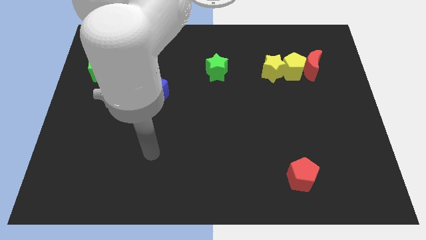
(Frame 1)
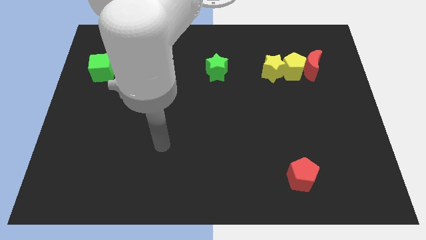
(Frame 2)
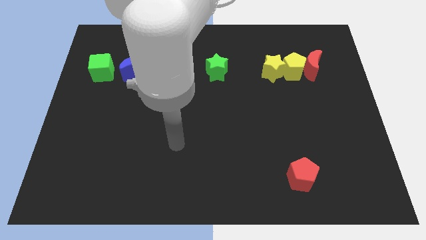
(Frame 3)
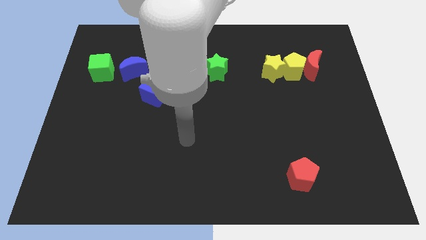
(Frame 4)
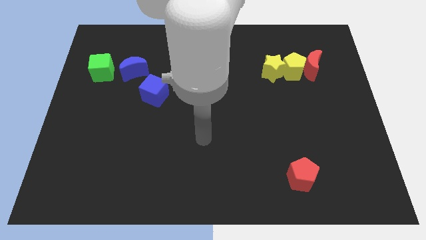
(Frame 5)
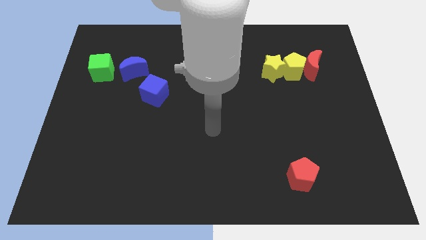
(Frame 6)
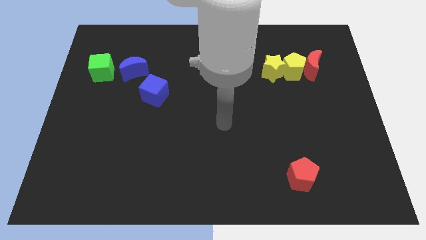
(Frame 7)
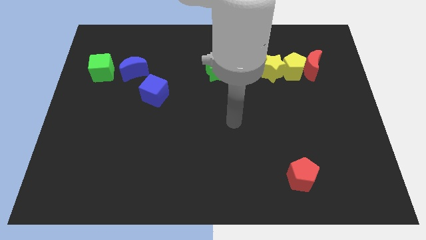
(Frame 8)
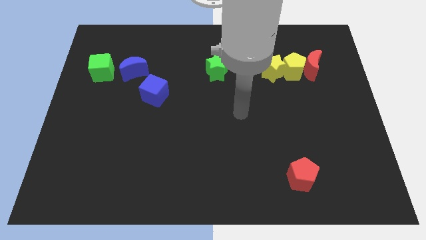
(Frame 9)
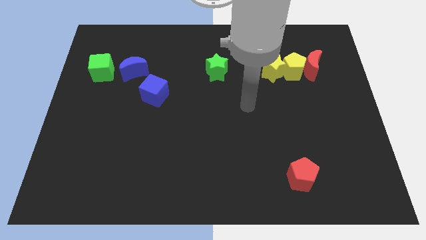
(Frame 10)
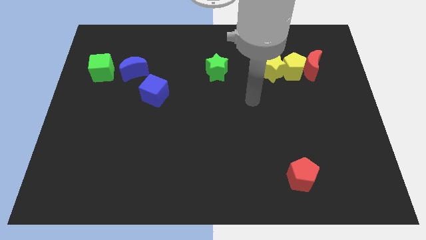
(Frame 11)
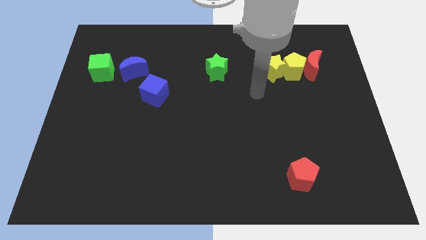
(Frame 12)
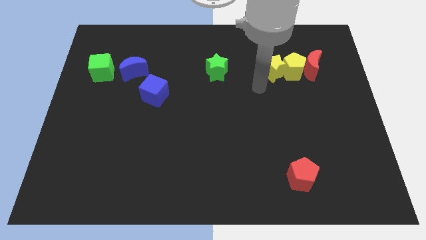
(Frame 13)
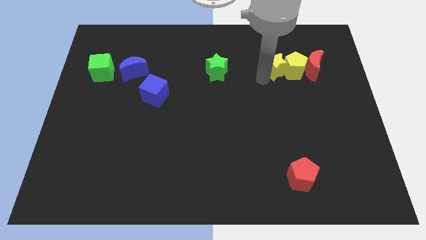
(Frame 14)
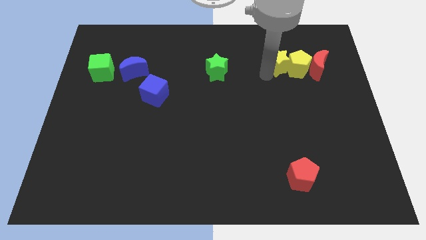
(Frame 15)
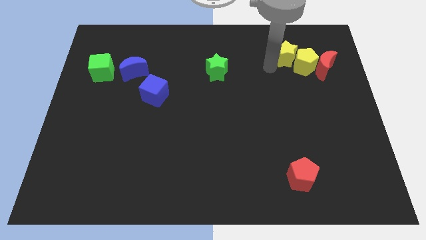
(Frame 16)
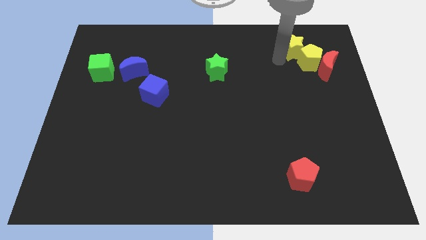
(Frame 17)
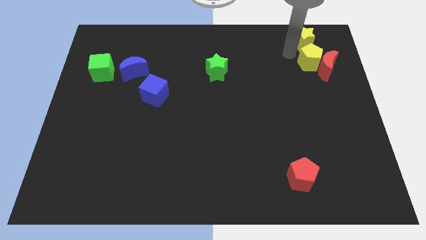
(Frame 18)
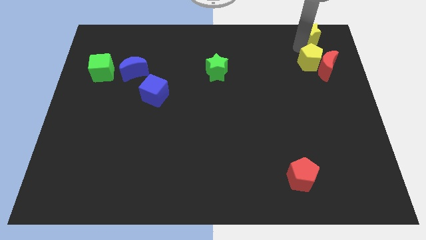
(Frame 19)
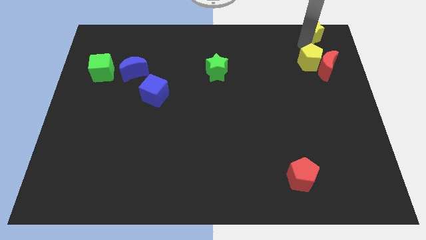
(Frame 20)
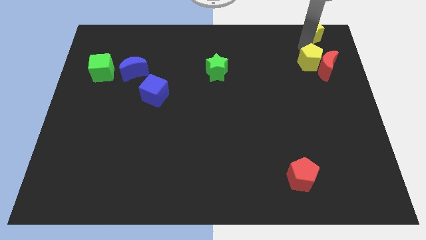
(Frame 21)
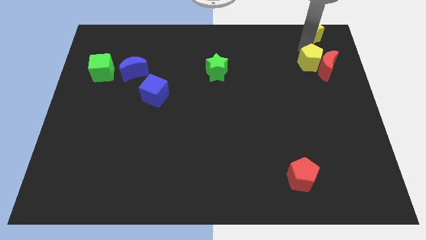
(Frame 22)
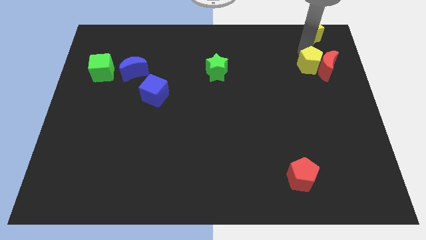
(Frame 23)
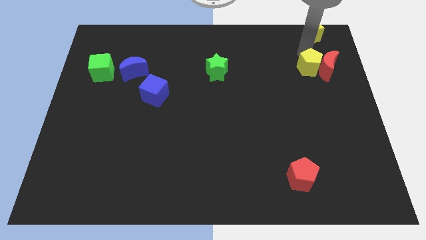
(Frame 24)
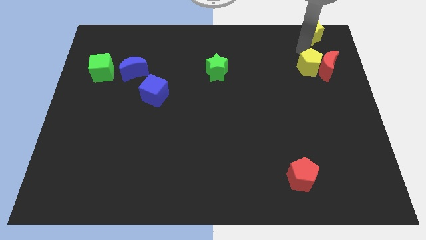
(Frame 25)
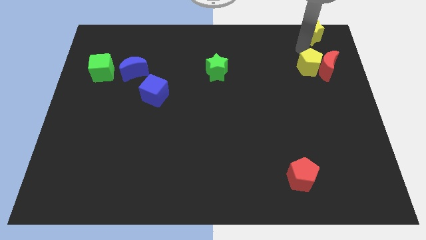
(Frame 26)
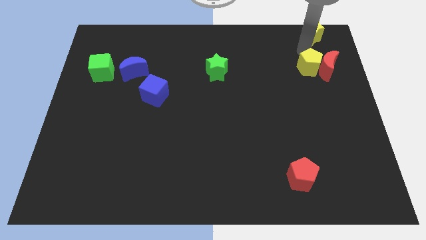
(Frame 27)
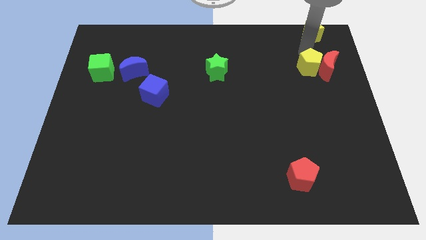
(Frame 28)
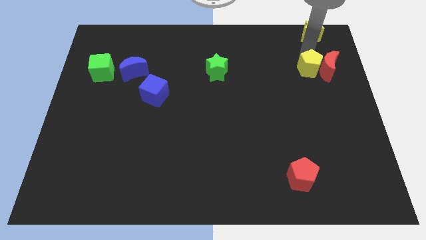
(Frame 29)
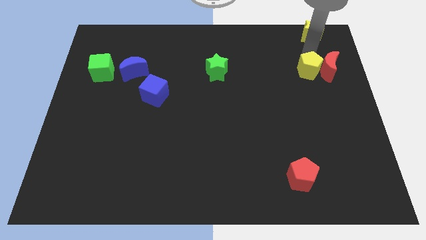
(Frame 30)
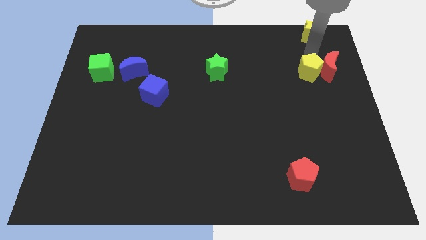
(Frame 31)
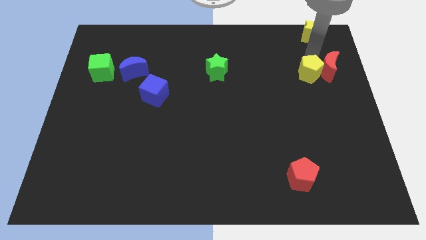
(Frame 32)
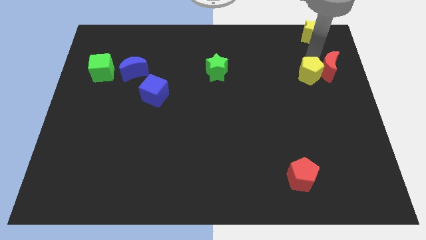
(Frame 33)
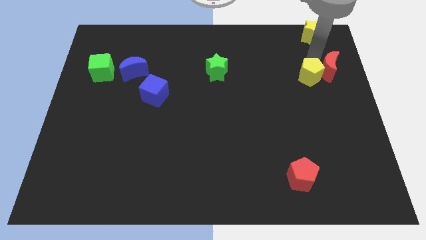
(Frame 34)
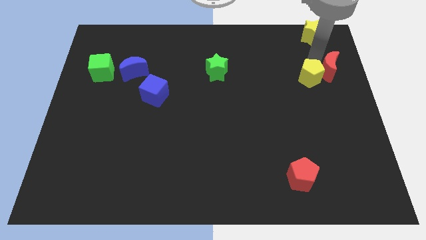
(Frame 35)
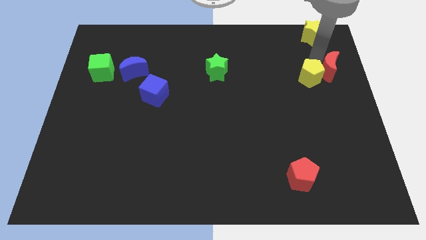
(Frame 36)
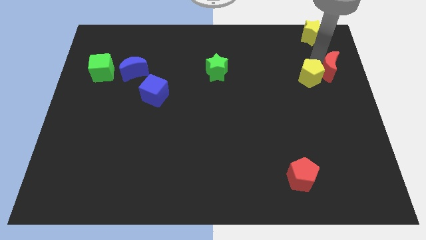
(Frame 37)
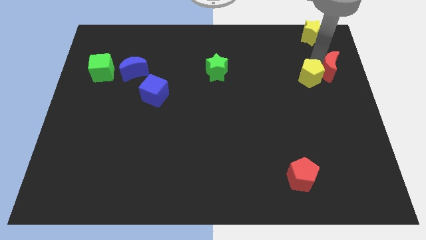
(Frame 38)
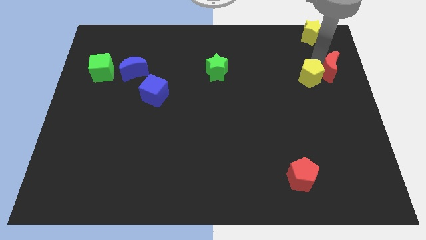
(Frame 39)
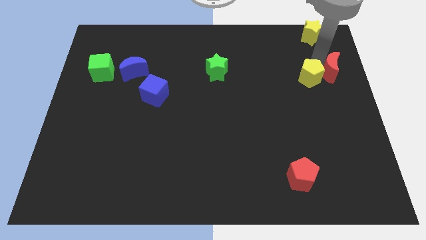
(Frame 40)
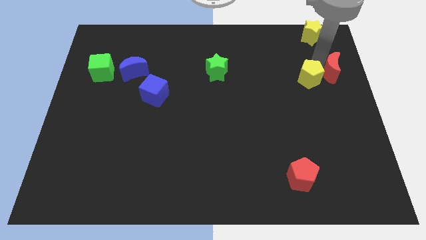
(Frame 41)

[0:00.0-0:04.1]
pull the yellow pentagon apart from the red moon and yellow star

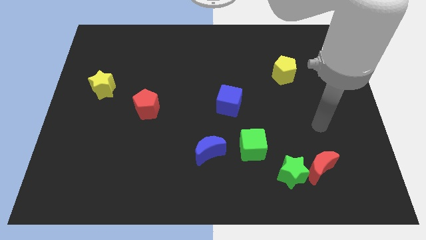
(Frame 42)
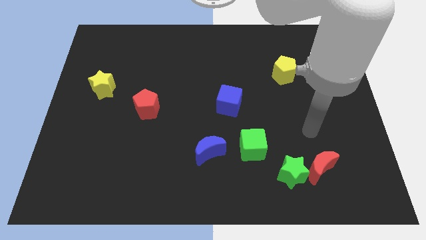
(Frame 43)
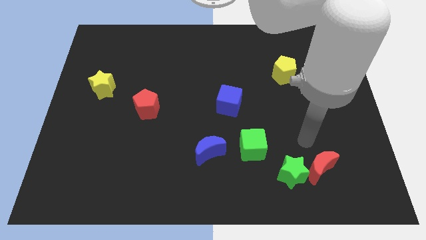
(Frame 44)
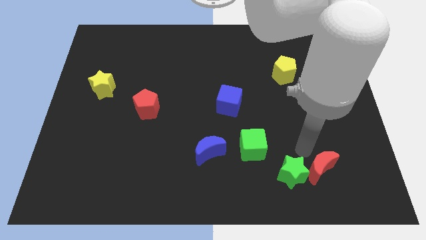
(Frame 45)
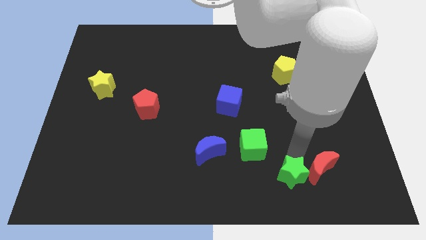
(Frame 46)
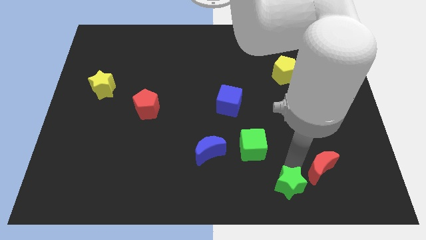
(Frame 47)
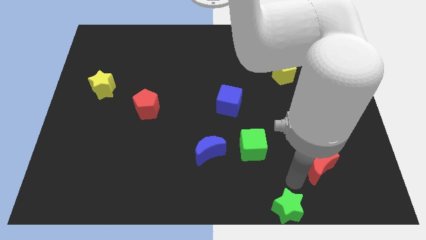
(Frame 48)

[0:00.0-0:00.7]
move the red moon away from the green star

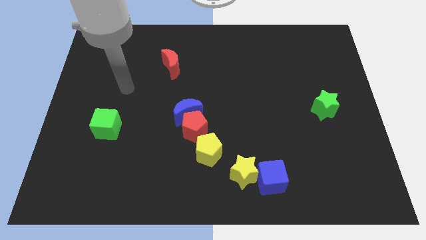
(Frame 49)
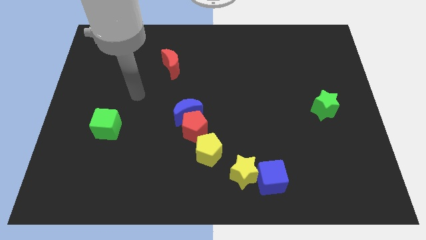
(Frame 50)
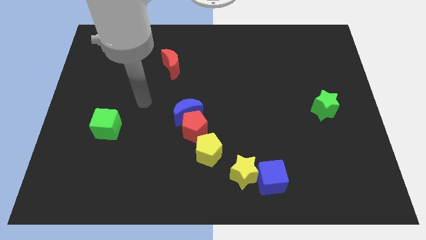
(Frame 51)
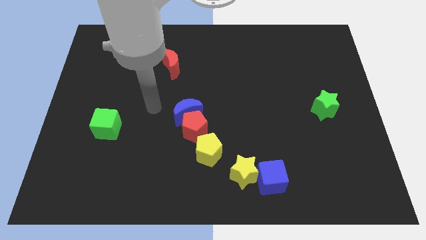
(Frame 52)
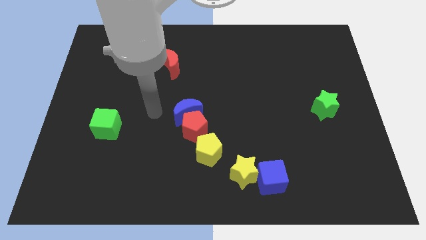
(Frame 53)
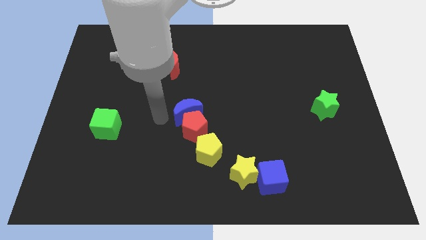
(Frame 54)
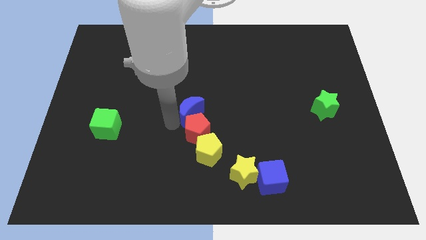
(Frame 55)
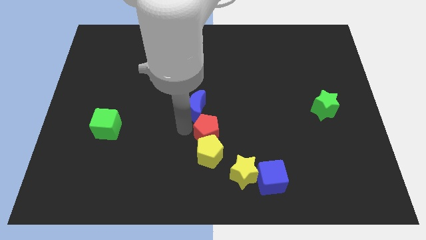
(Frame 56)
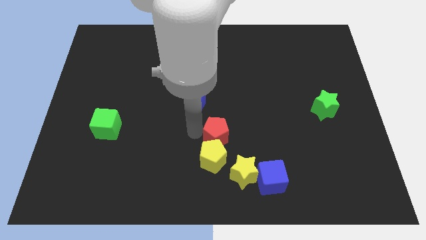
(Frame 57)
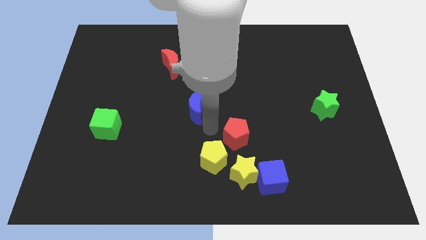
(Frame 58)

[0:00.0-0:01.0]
pull the blue moon apart from the red pentagon

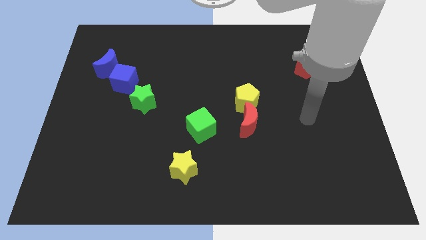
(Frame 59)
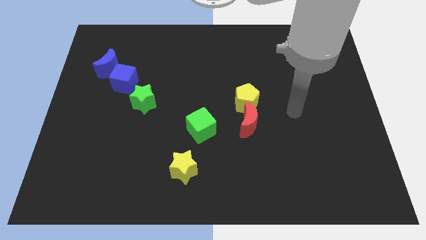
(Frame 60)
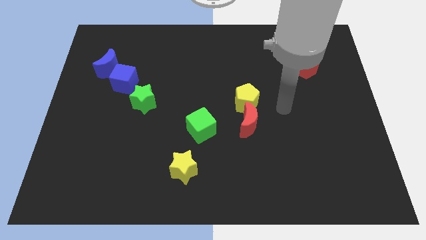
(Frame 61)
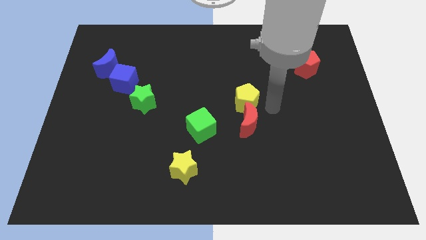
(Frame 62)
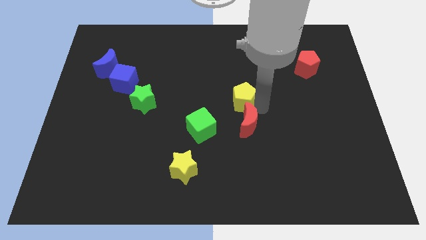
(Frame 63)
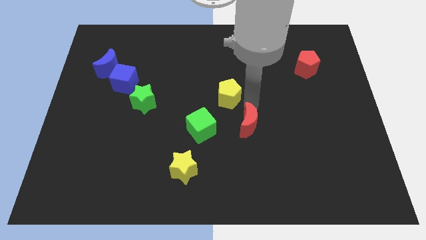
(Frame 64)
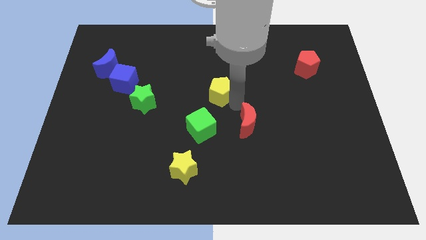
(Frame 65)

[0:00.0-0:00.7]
separate the red moon from the yellow pentagon

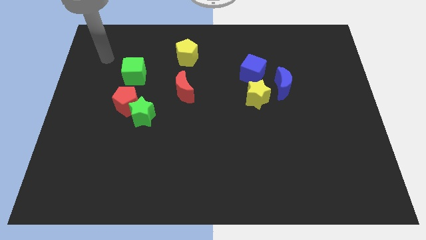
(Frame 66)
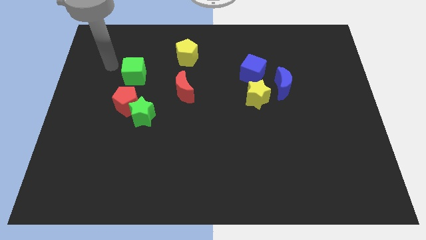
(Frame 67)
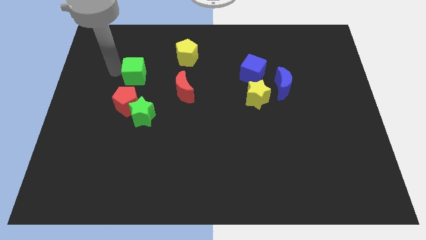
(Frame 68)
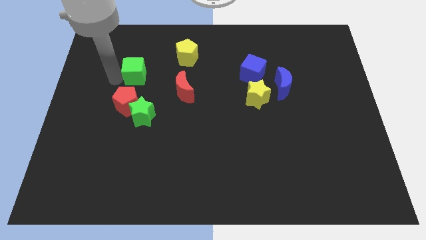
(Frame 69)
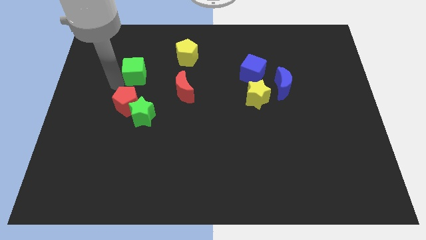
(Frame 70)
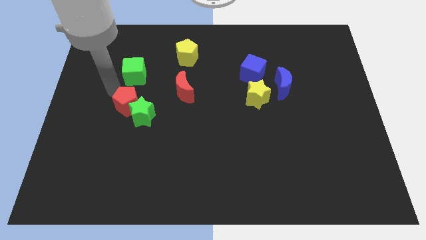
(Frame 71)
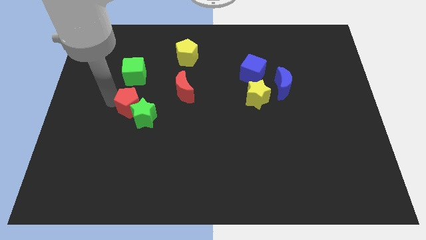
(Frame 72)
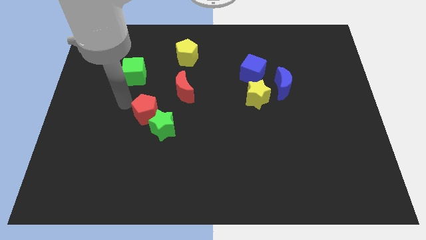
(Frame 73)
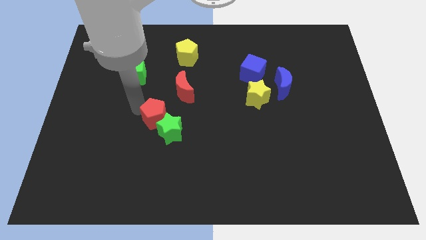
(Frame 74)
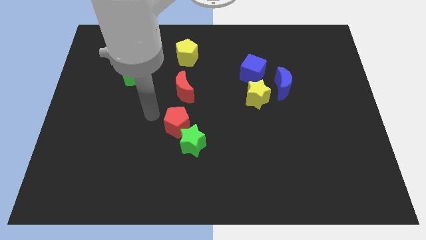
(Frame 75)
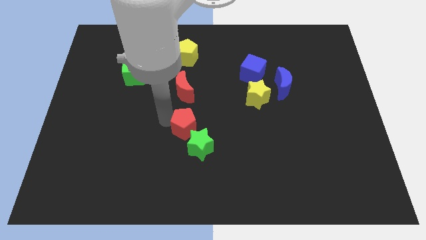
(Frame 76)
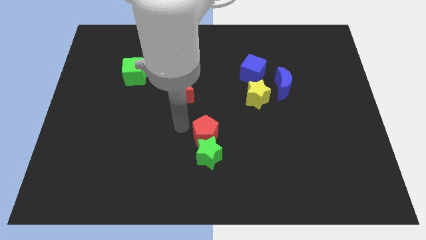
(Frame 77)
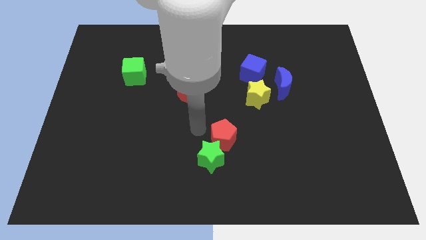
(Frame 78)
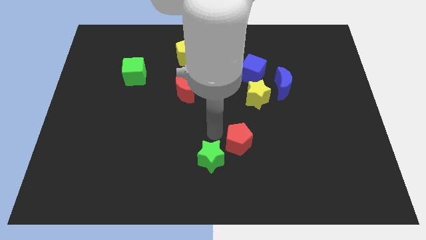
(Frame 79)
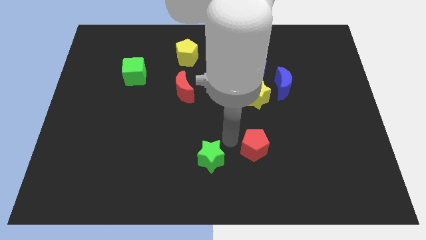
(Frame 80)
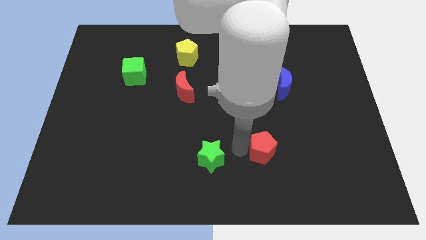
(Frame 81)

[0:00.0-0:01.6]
pull the green star apart from the red pentagon

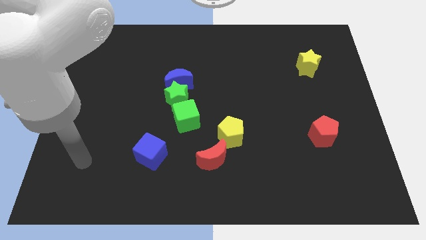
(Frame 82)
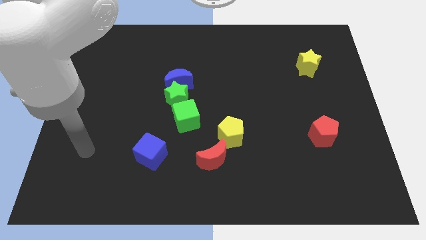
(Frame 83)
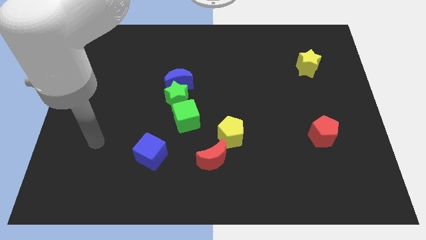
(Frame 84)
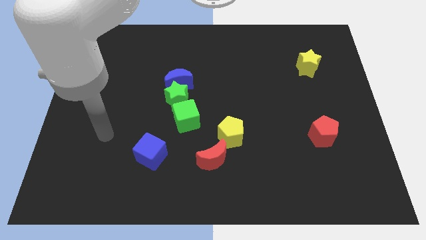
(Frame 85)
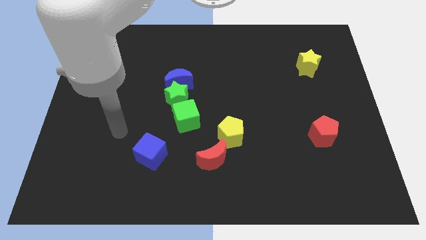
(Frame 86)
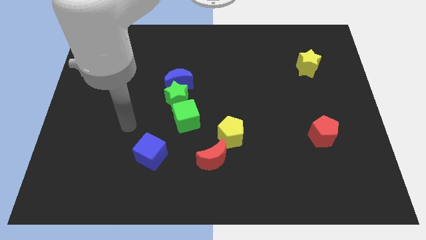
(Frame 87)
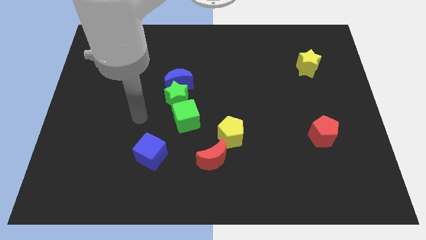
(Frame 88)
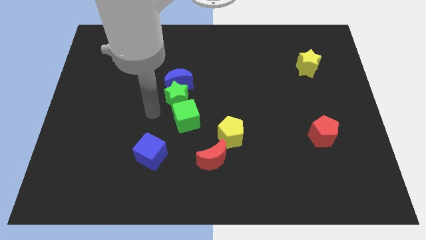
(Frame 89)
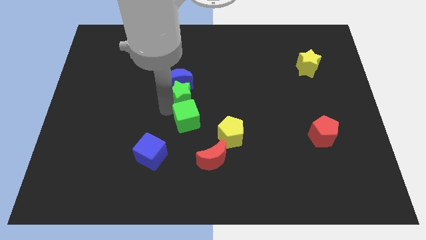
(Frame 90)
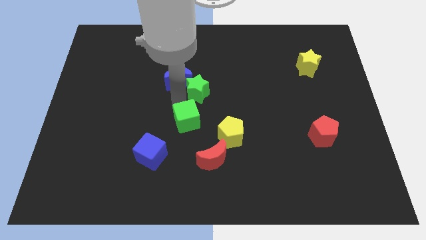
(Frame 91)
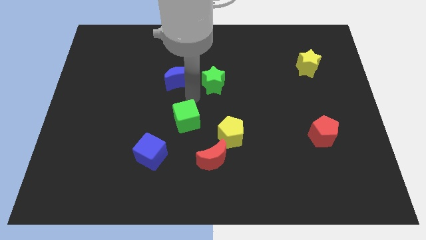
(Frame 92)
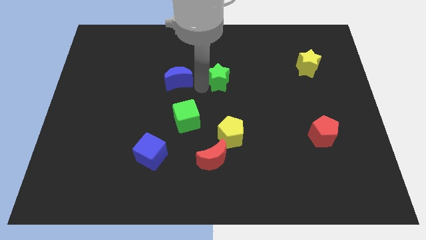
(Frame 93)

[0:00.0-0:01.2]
pull the blue moon apart from the green star
